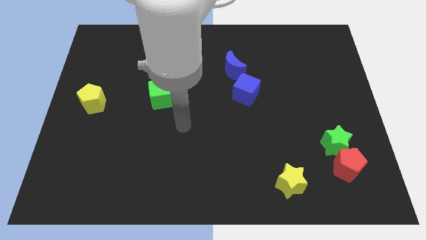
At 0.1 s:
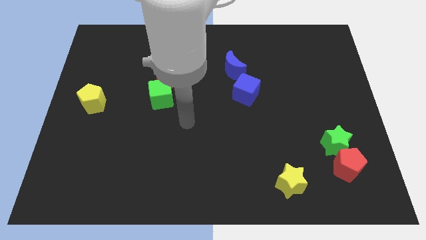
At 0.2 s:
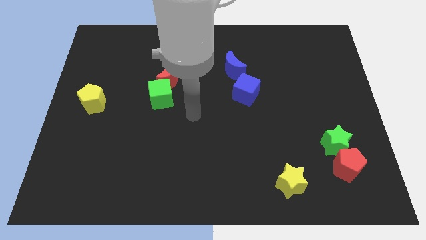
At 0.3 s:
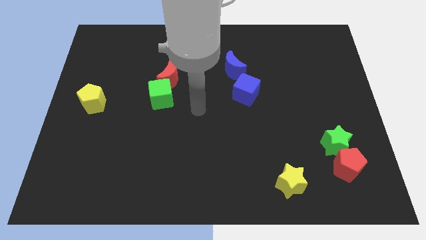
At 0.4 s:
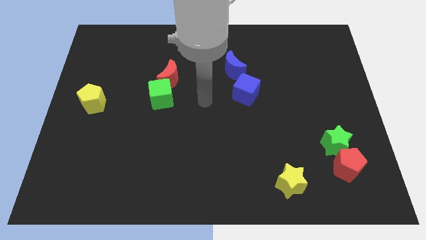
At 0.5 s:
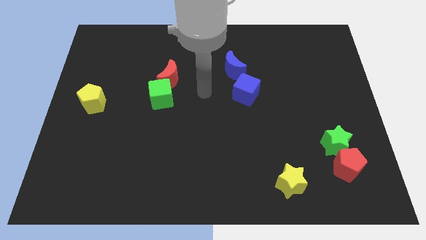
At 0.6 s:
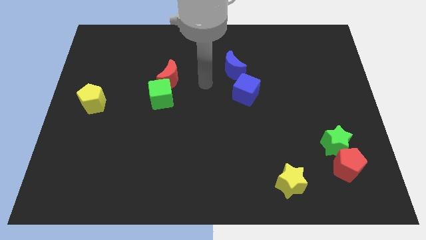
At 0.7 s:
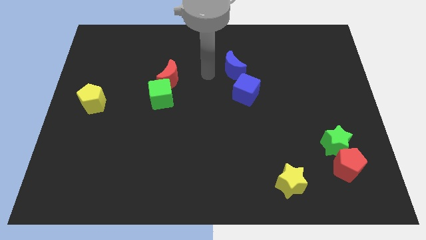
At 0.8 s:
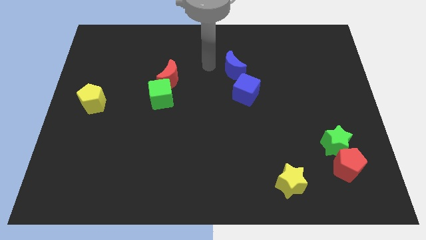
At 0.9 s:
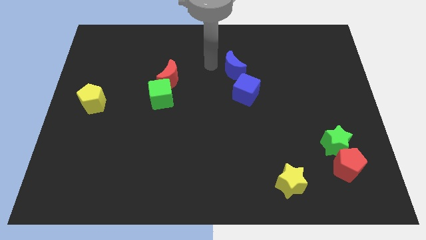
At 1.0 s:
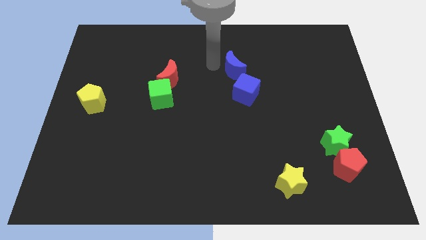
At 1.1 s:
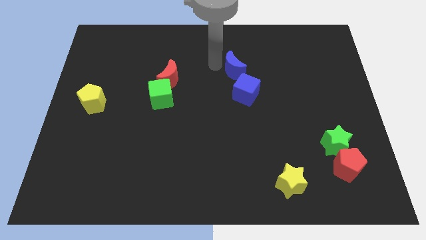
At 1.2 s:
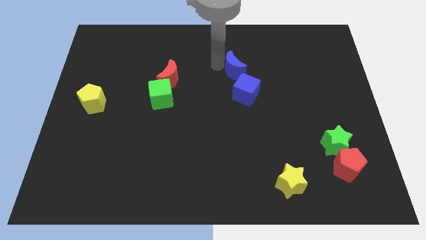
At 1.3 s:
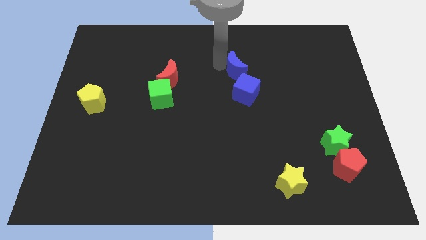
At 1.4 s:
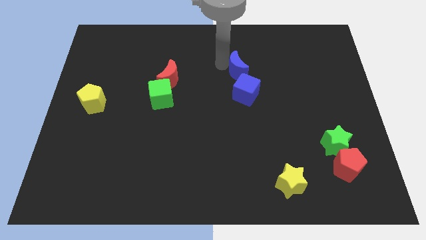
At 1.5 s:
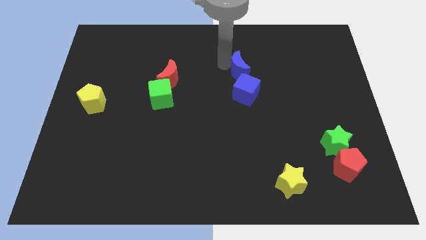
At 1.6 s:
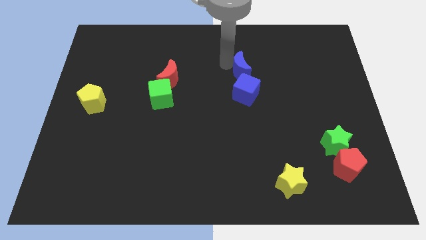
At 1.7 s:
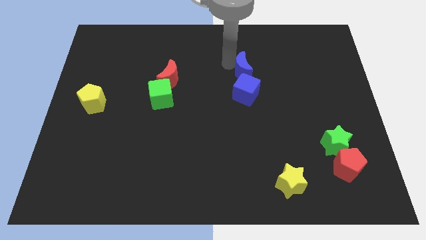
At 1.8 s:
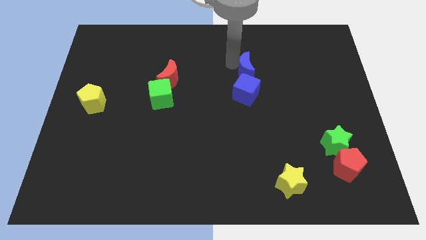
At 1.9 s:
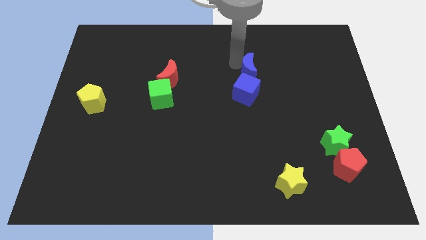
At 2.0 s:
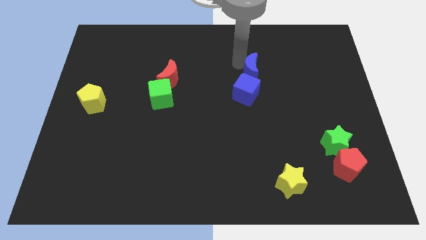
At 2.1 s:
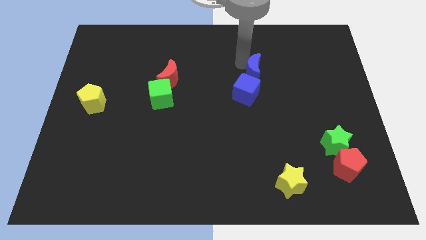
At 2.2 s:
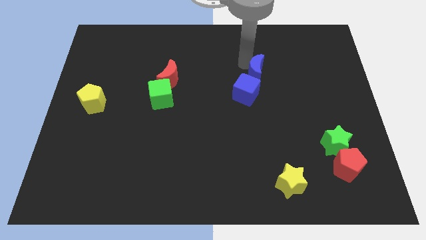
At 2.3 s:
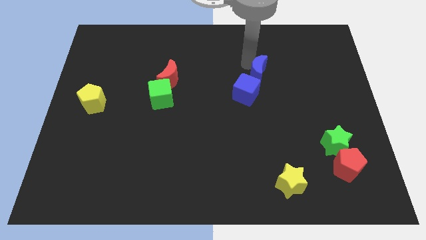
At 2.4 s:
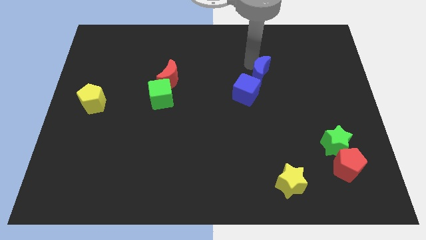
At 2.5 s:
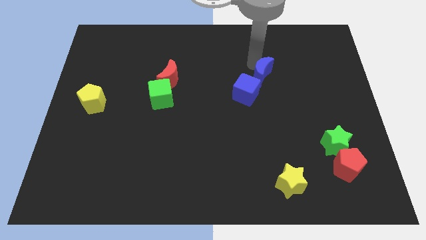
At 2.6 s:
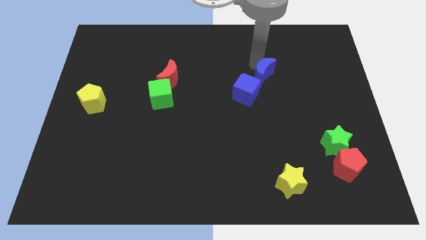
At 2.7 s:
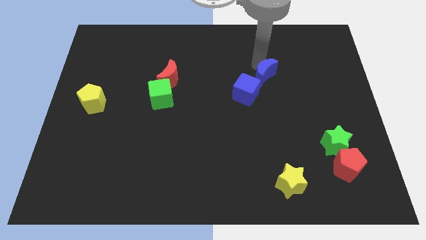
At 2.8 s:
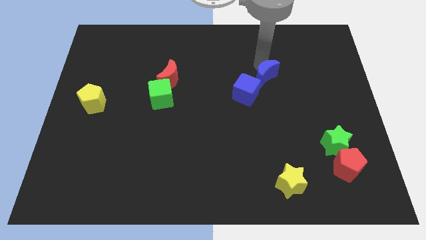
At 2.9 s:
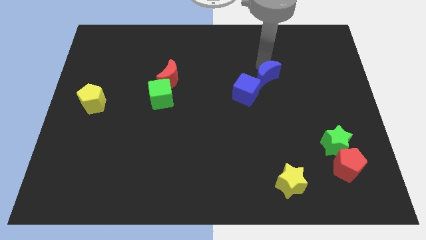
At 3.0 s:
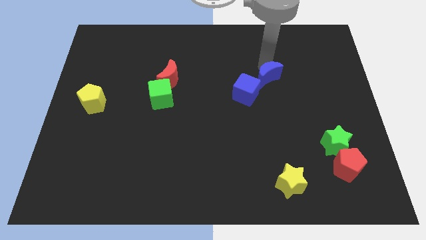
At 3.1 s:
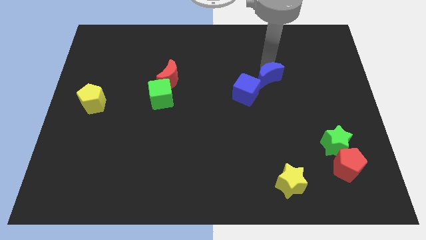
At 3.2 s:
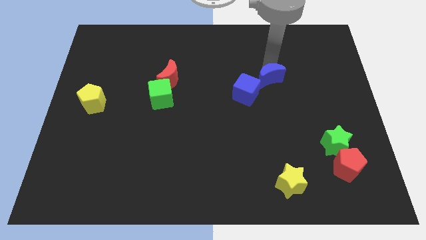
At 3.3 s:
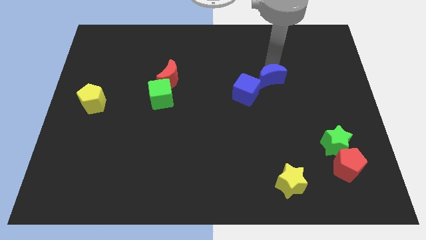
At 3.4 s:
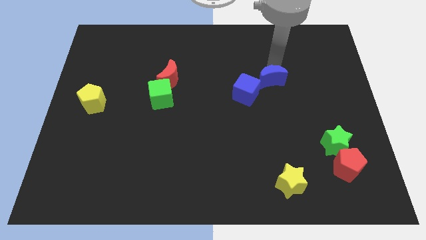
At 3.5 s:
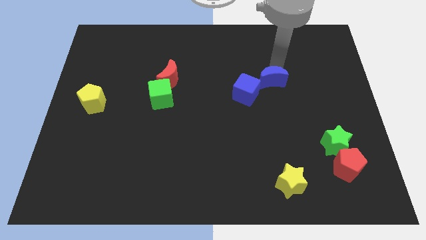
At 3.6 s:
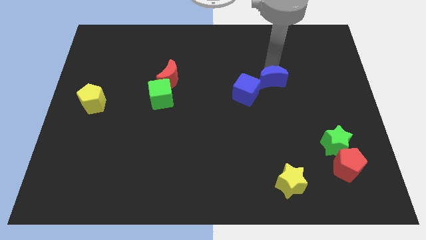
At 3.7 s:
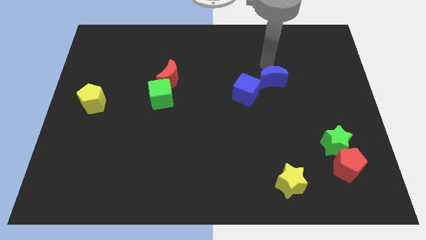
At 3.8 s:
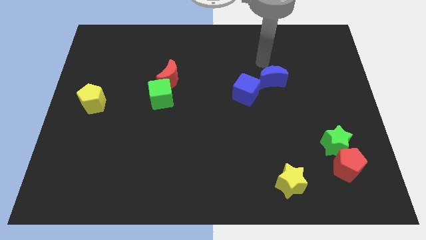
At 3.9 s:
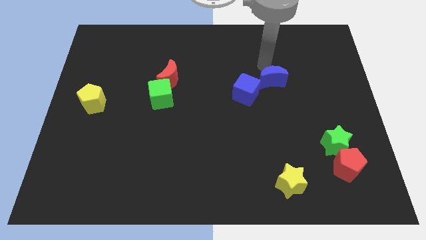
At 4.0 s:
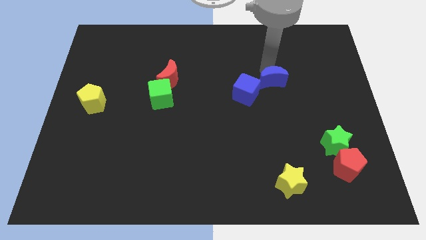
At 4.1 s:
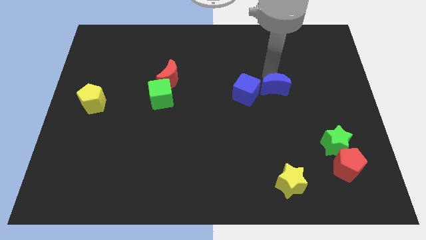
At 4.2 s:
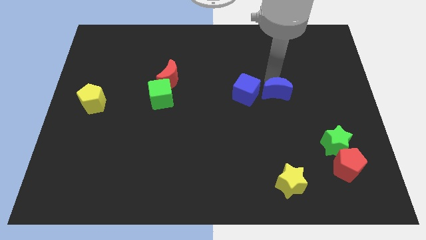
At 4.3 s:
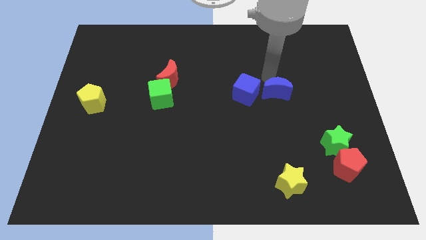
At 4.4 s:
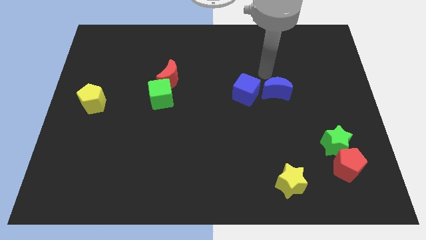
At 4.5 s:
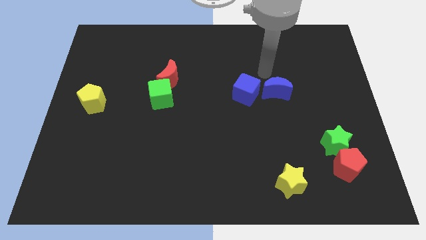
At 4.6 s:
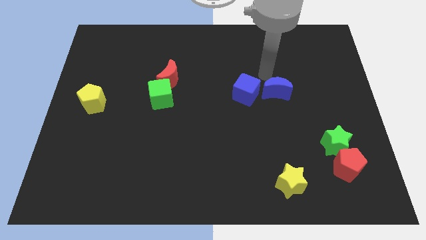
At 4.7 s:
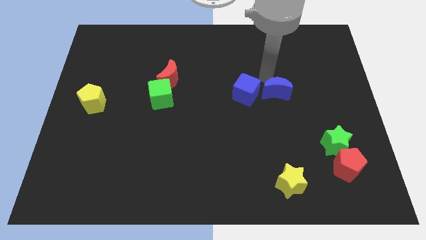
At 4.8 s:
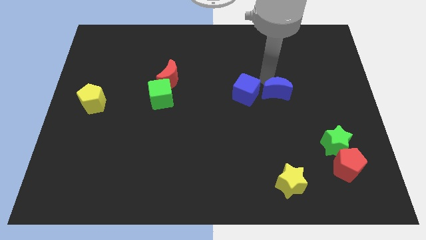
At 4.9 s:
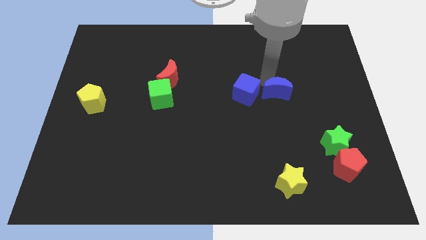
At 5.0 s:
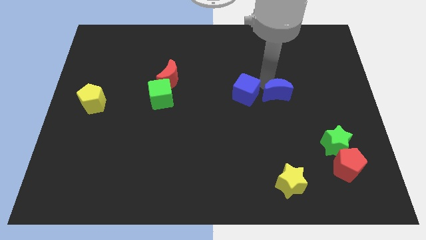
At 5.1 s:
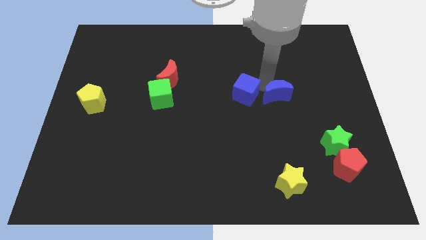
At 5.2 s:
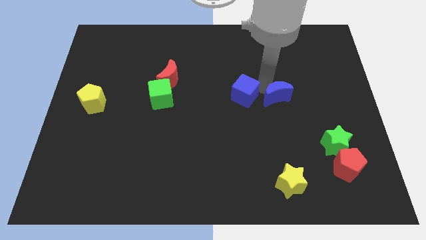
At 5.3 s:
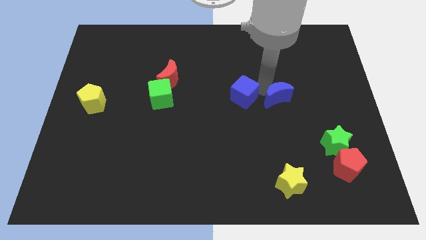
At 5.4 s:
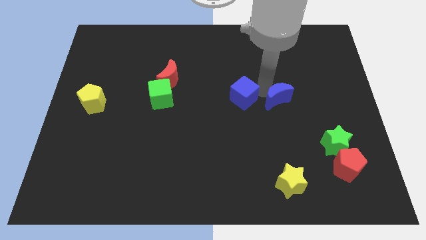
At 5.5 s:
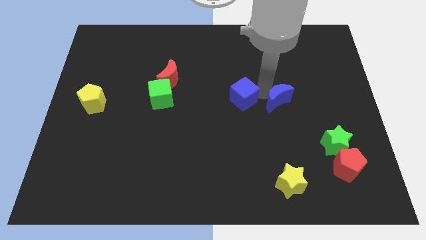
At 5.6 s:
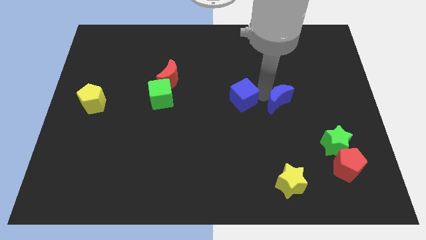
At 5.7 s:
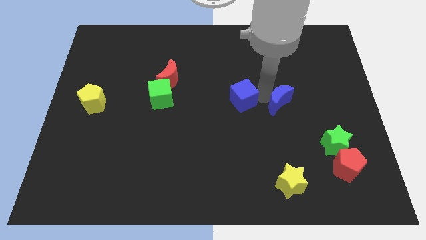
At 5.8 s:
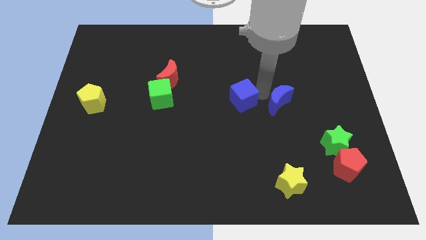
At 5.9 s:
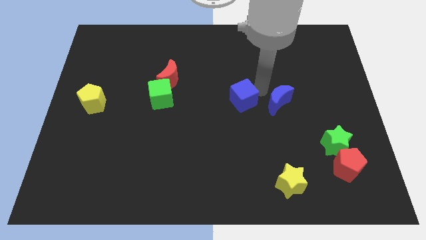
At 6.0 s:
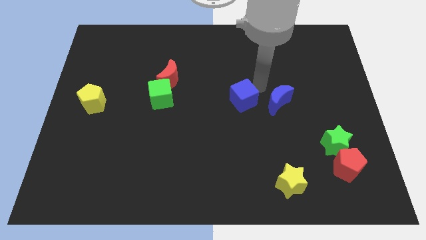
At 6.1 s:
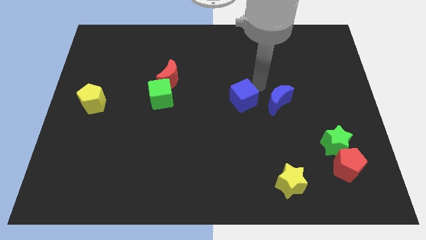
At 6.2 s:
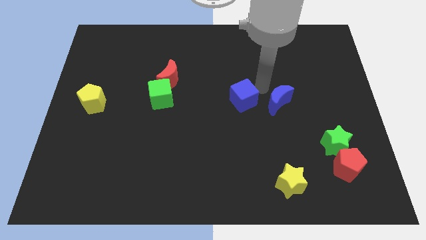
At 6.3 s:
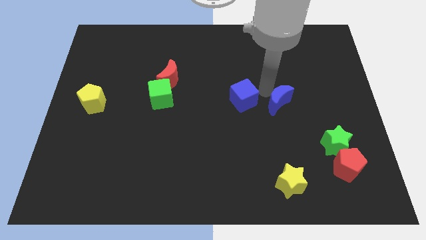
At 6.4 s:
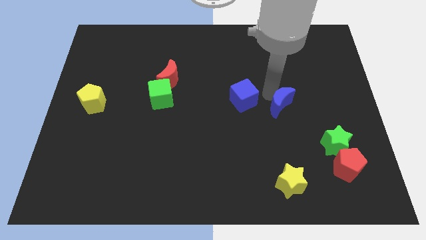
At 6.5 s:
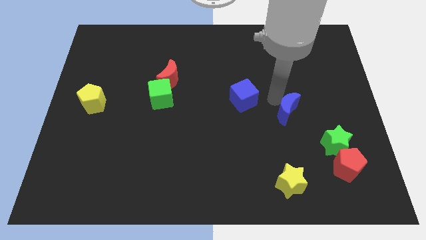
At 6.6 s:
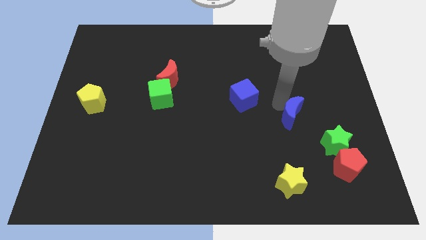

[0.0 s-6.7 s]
slide the blue moon diagonally up and to the left of the green star

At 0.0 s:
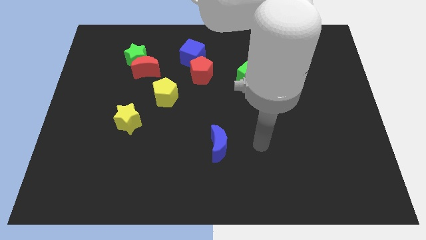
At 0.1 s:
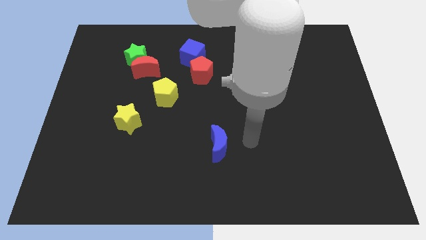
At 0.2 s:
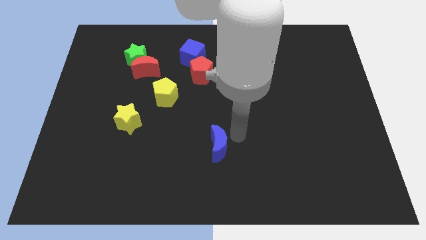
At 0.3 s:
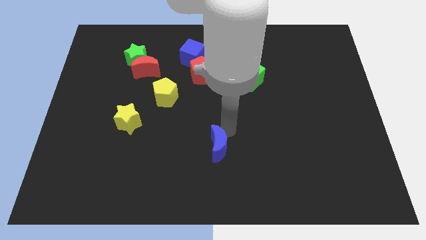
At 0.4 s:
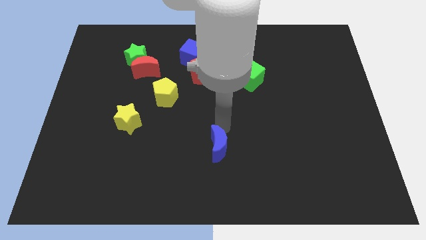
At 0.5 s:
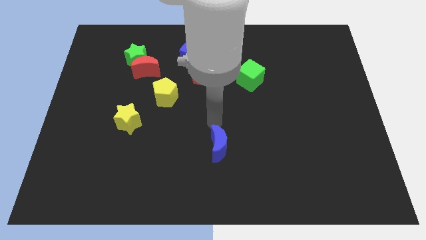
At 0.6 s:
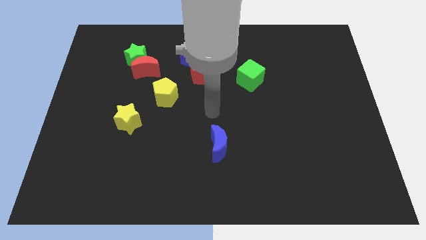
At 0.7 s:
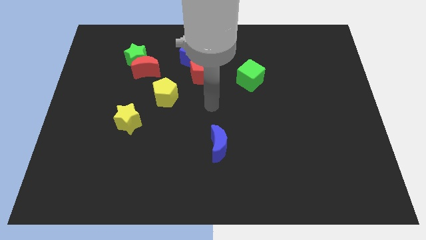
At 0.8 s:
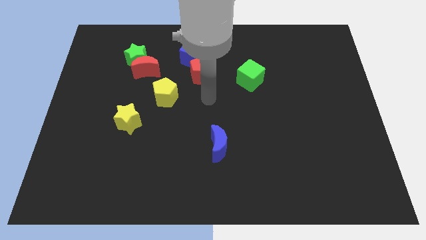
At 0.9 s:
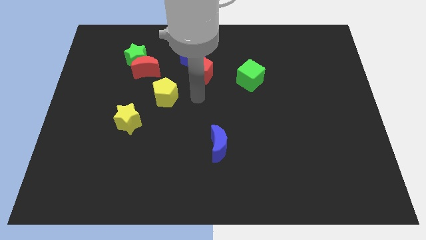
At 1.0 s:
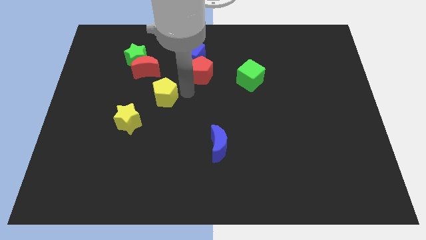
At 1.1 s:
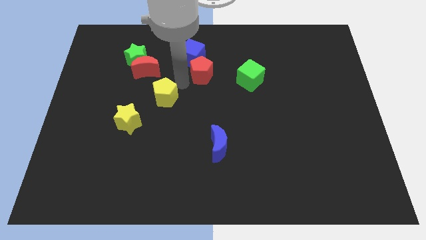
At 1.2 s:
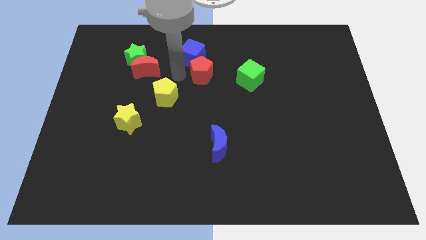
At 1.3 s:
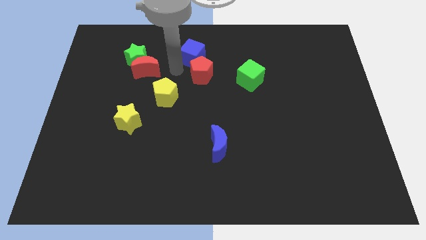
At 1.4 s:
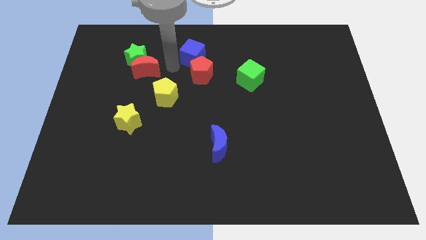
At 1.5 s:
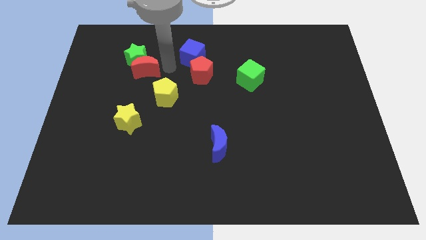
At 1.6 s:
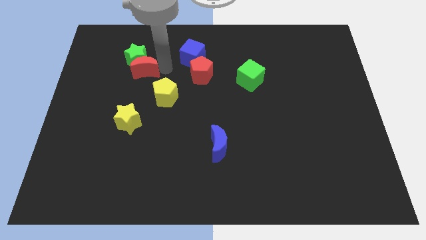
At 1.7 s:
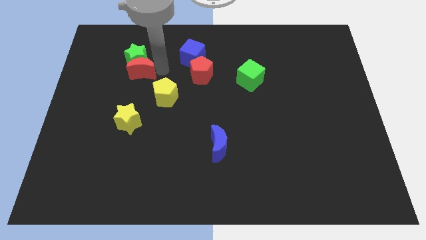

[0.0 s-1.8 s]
move the red moon to the bottom left of the green star
